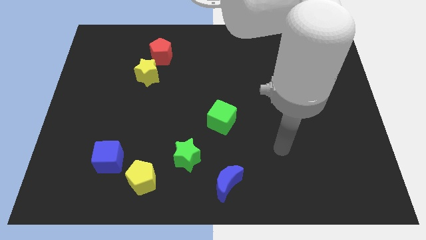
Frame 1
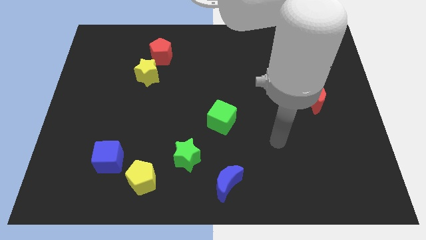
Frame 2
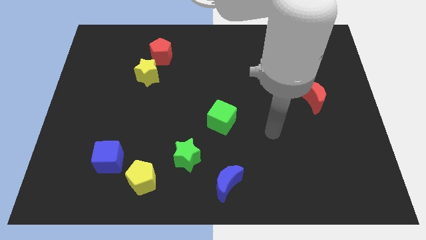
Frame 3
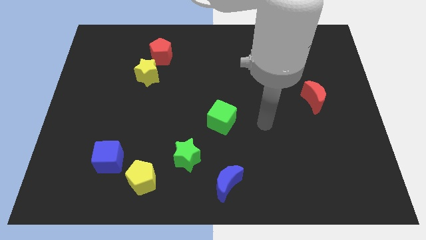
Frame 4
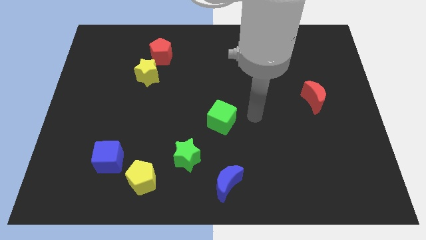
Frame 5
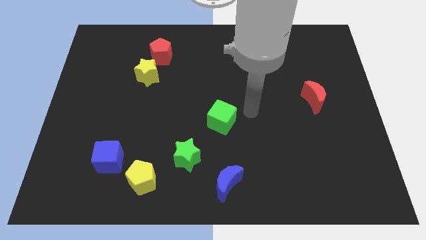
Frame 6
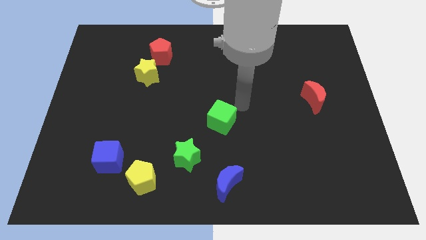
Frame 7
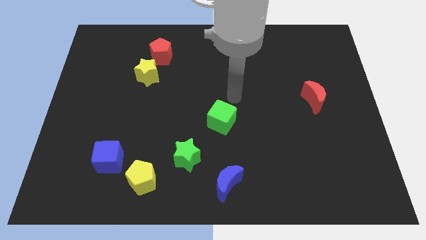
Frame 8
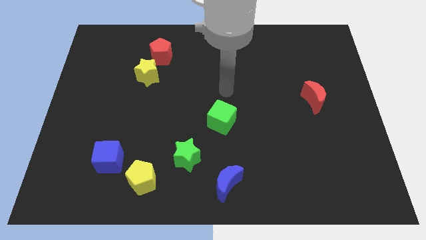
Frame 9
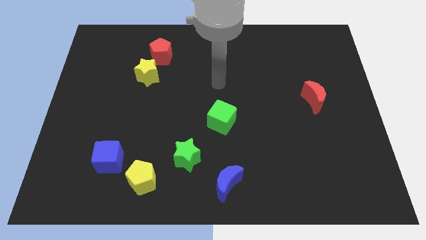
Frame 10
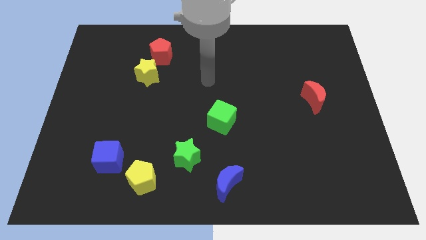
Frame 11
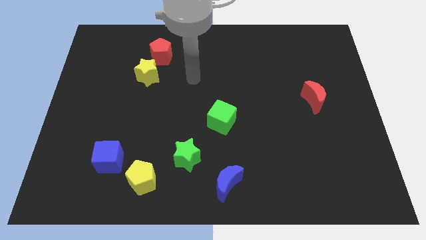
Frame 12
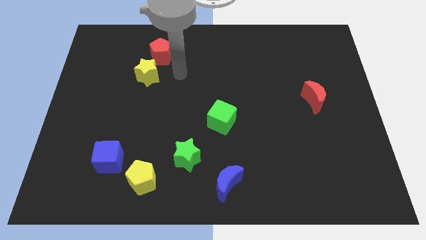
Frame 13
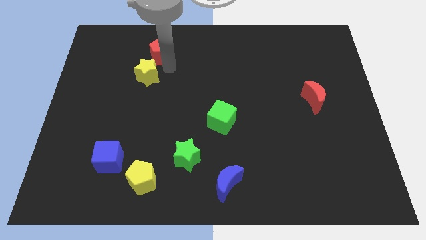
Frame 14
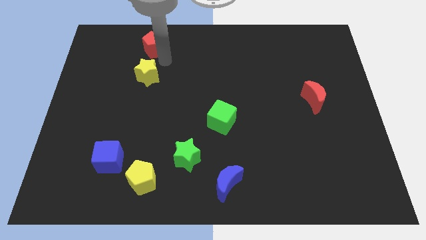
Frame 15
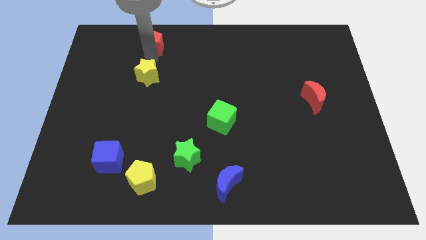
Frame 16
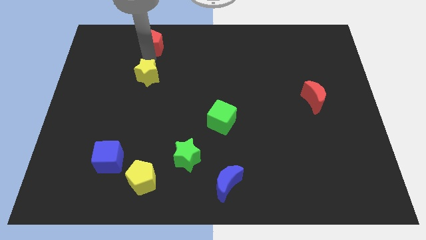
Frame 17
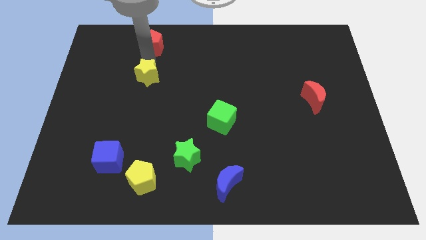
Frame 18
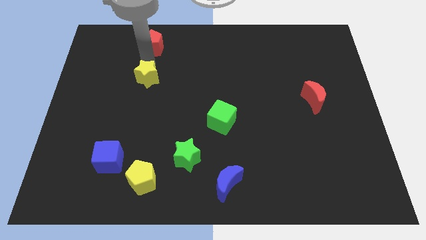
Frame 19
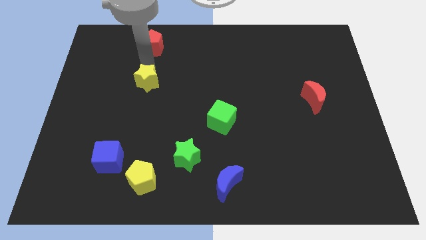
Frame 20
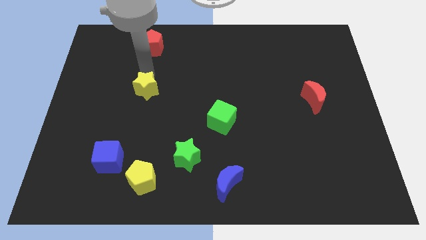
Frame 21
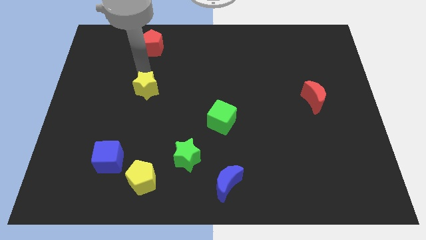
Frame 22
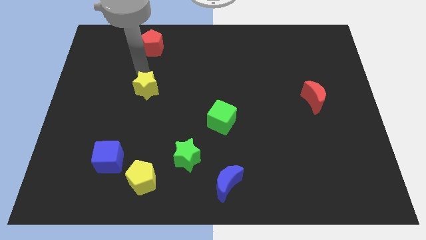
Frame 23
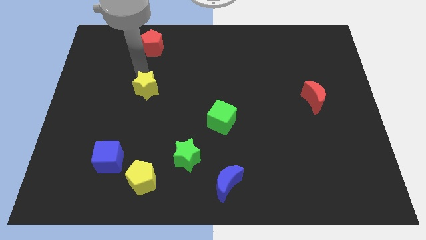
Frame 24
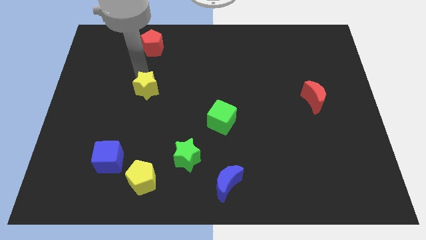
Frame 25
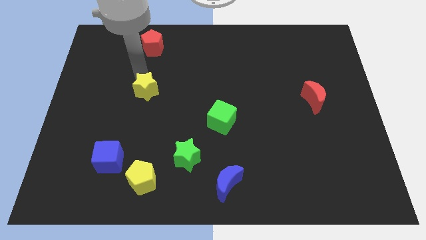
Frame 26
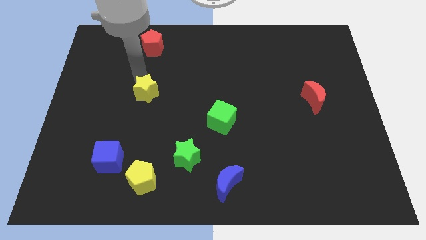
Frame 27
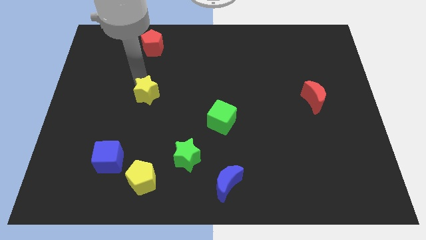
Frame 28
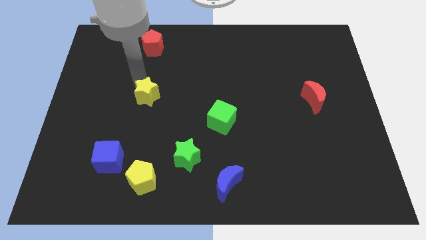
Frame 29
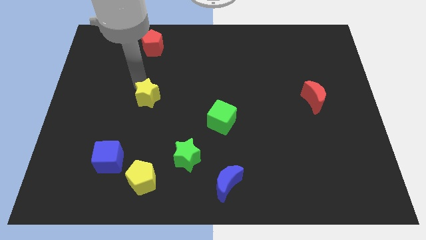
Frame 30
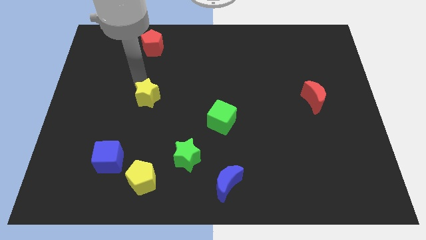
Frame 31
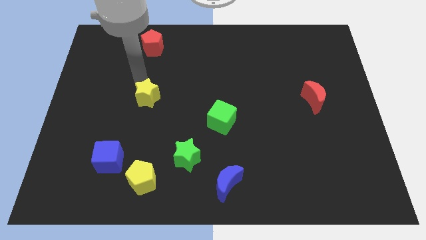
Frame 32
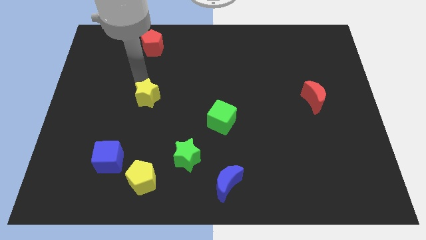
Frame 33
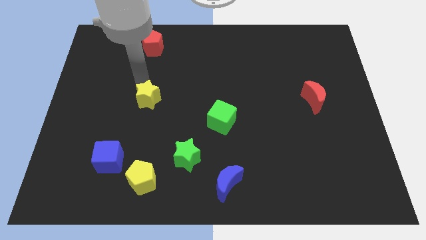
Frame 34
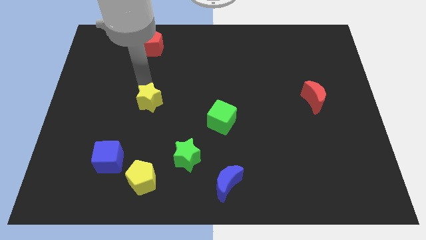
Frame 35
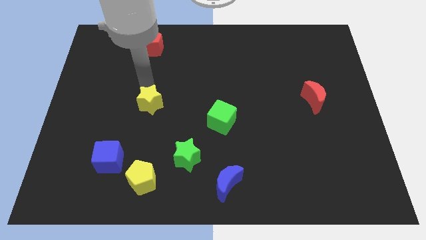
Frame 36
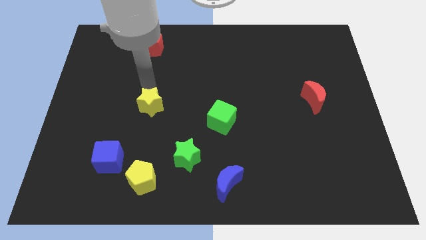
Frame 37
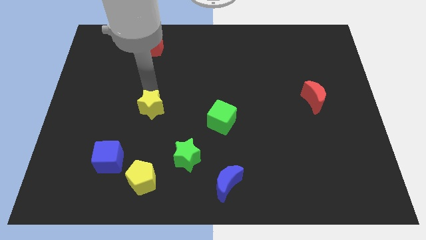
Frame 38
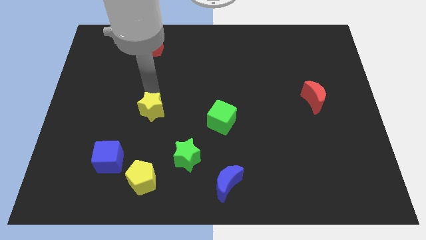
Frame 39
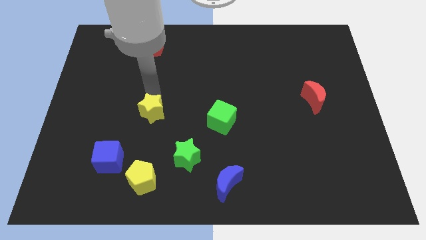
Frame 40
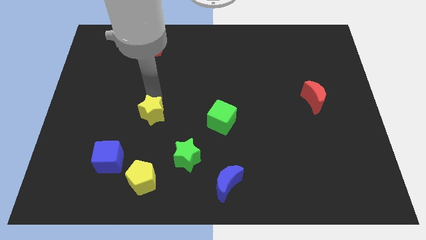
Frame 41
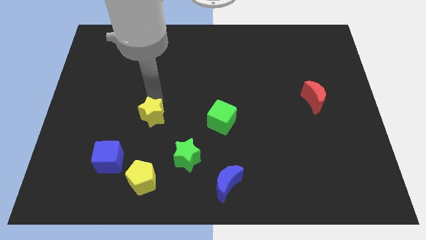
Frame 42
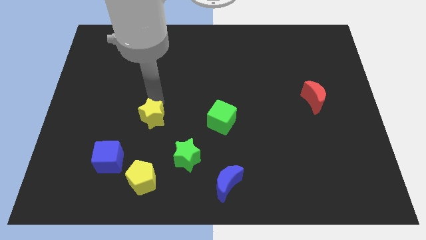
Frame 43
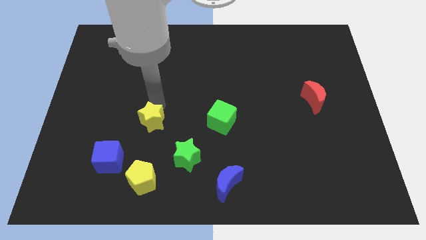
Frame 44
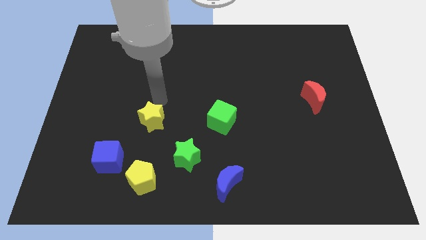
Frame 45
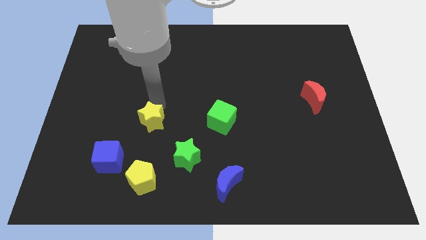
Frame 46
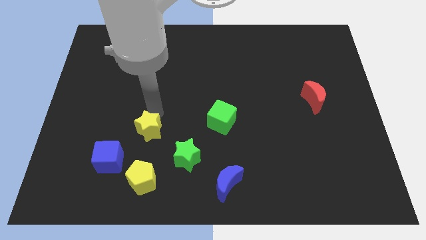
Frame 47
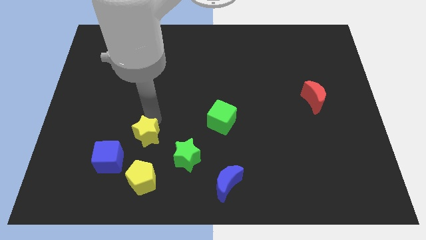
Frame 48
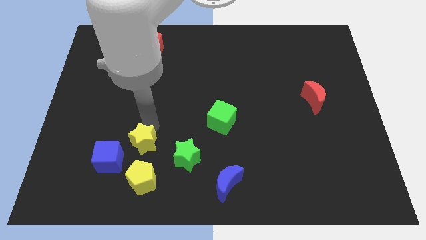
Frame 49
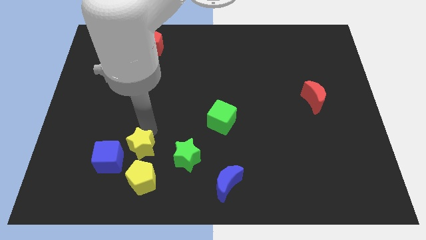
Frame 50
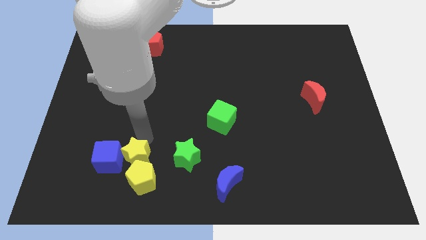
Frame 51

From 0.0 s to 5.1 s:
move the yellow star next to the yellow pentagon

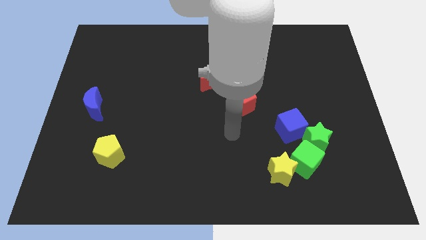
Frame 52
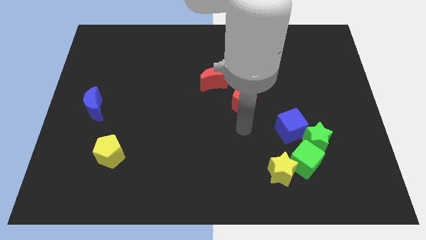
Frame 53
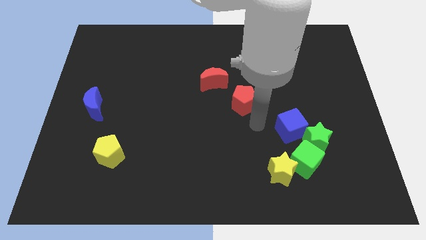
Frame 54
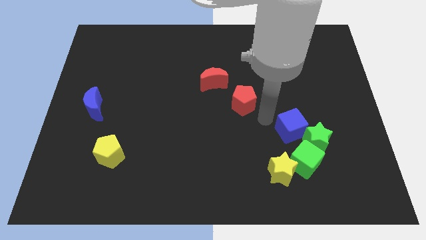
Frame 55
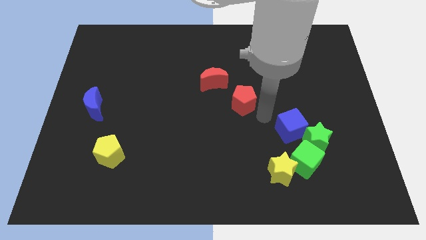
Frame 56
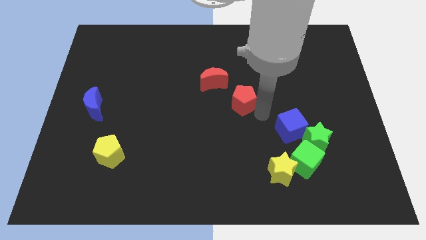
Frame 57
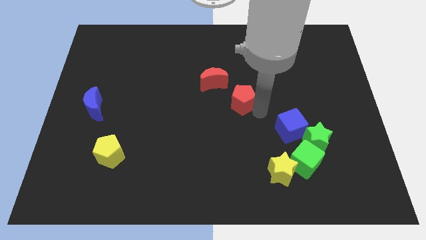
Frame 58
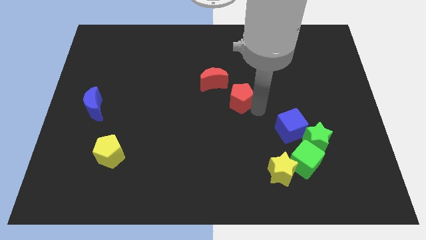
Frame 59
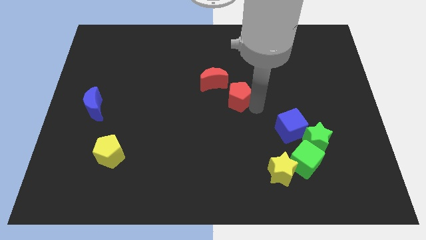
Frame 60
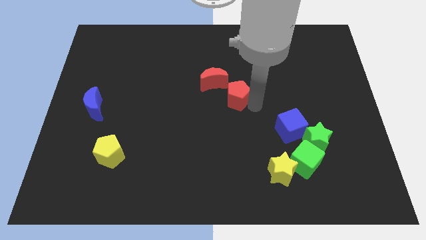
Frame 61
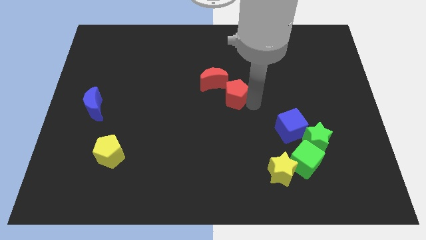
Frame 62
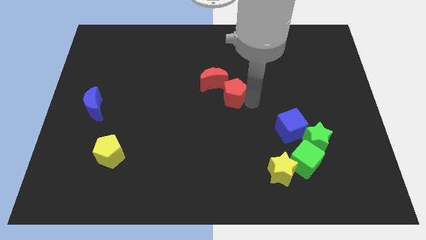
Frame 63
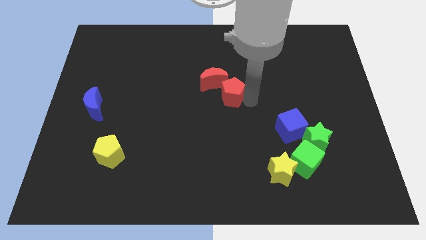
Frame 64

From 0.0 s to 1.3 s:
slide the red pentagon close to the red moon

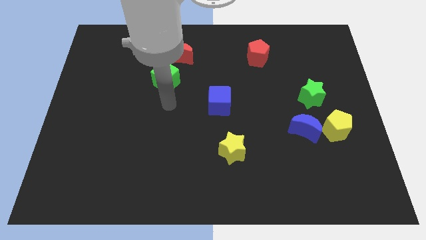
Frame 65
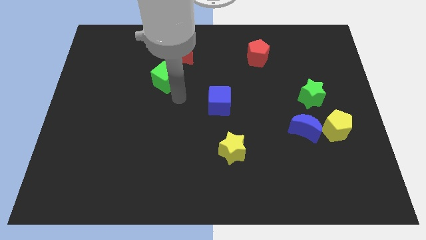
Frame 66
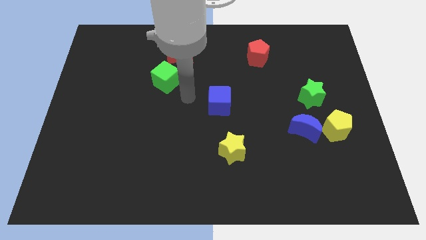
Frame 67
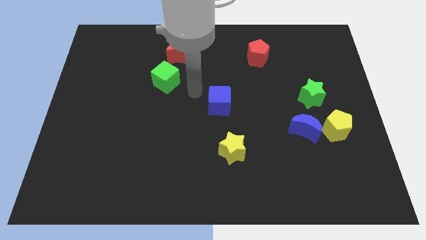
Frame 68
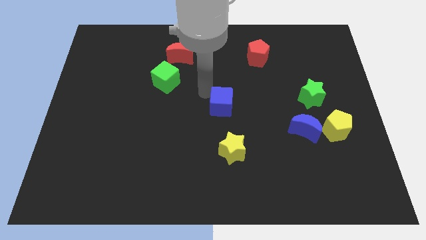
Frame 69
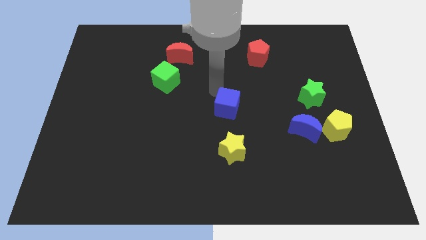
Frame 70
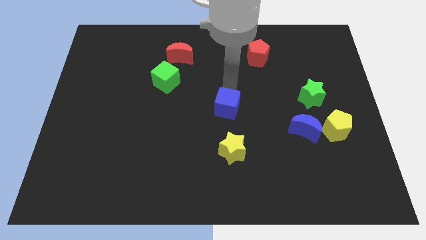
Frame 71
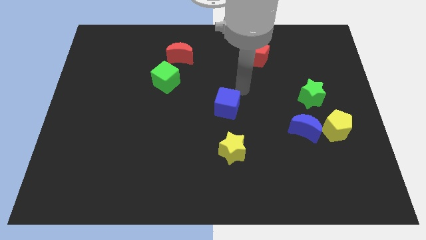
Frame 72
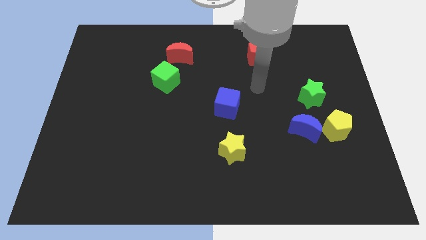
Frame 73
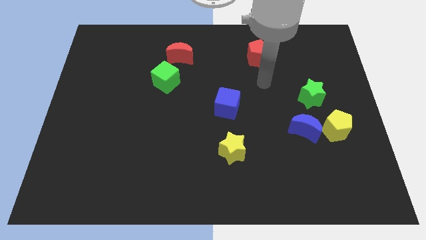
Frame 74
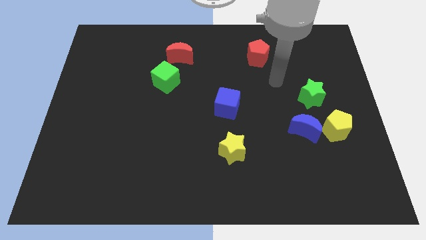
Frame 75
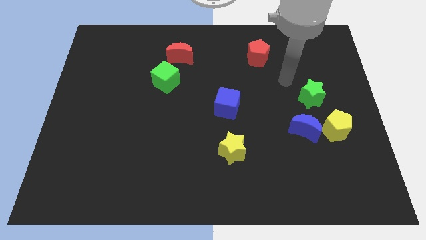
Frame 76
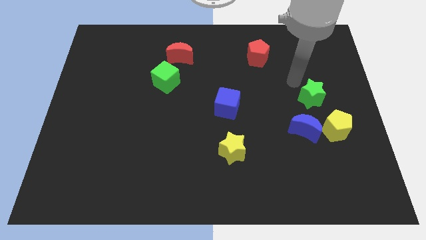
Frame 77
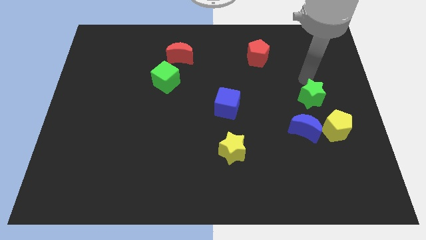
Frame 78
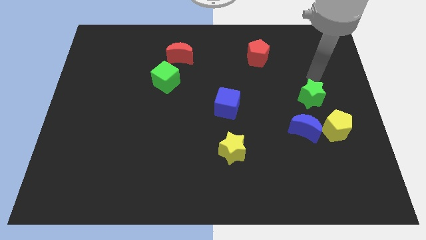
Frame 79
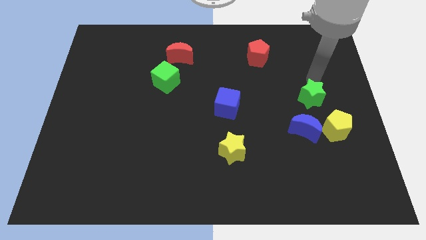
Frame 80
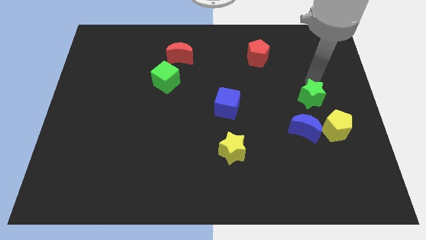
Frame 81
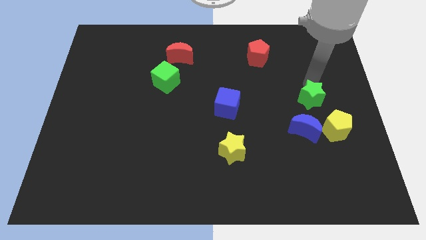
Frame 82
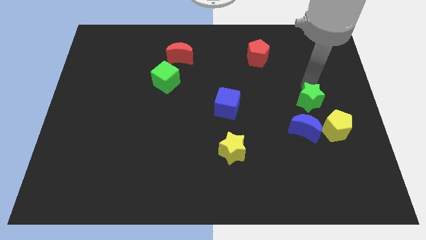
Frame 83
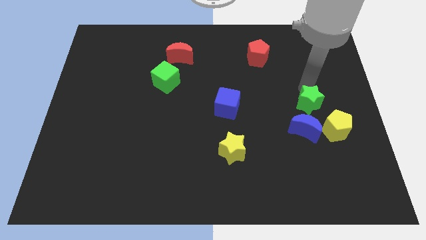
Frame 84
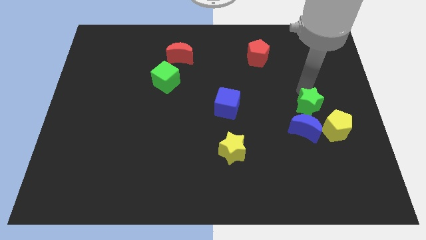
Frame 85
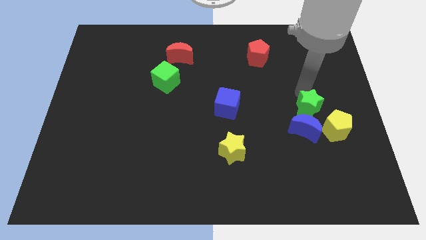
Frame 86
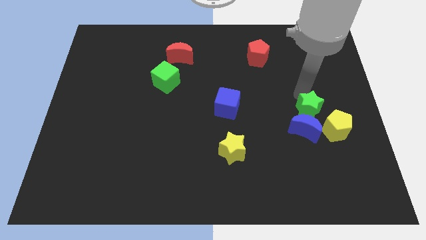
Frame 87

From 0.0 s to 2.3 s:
move the green star close to the blue moon
